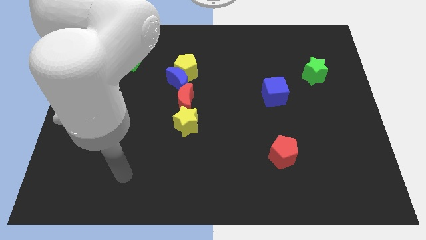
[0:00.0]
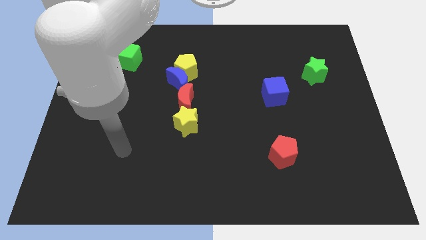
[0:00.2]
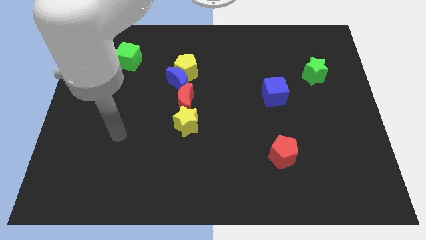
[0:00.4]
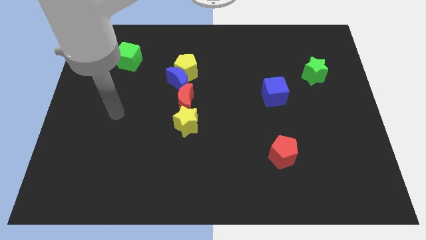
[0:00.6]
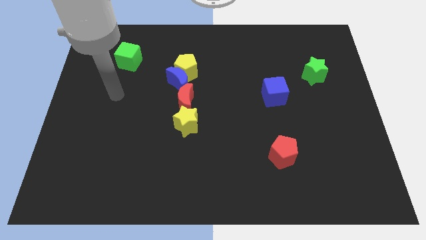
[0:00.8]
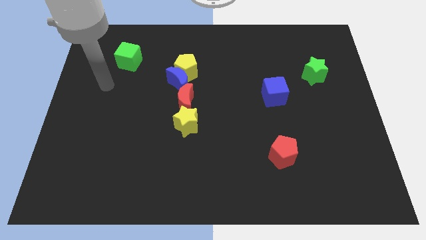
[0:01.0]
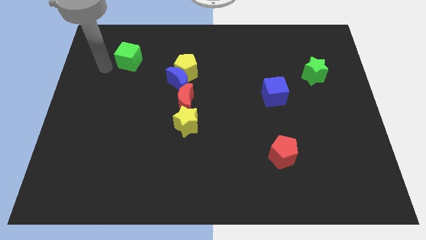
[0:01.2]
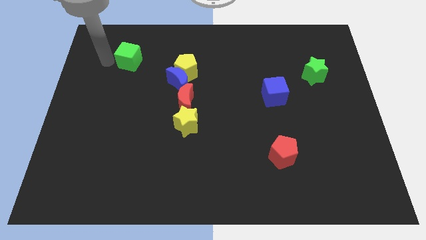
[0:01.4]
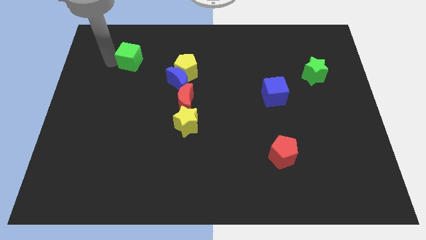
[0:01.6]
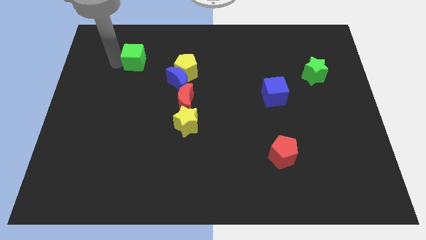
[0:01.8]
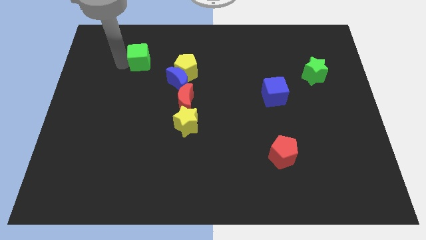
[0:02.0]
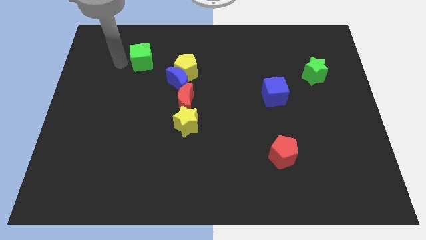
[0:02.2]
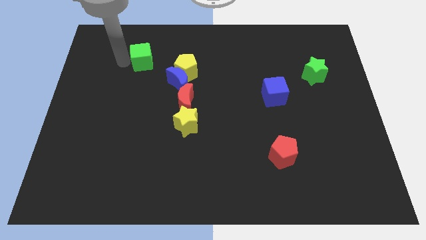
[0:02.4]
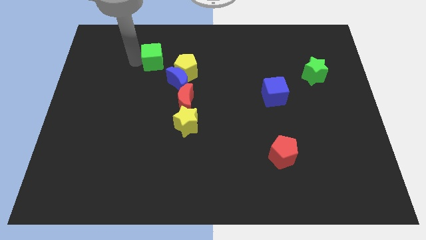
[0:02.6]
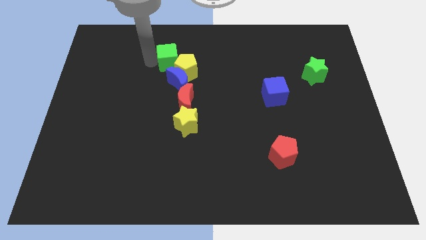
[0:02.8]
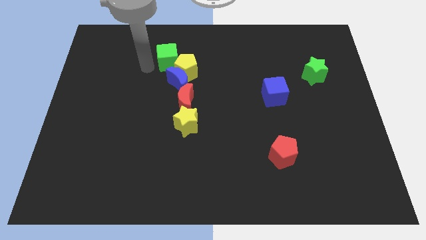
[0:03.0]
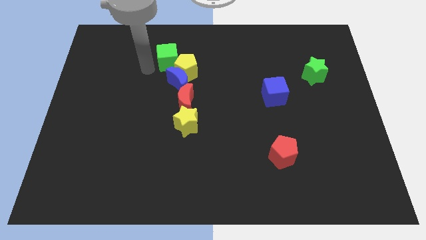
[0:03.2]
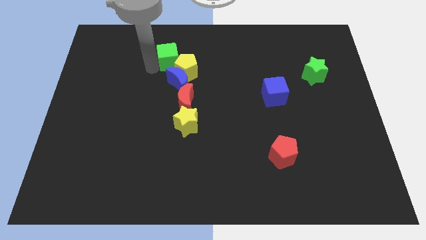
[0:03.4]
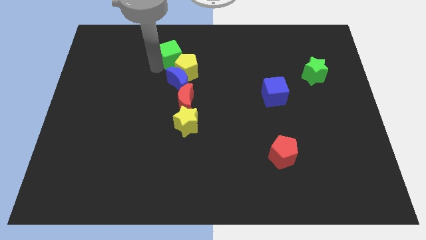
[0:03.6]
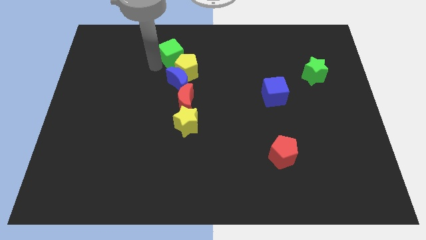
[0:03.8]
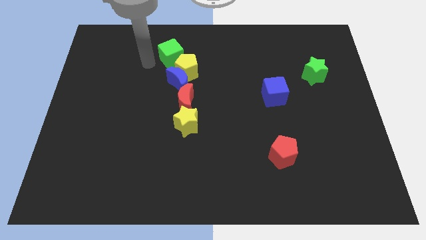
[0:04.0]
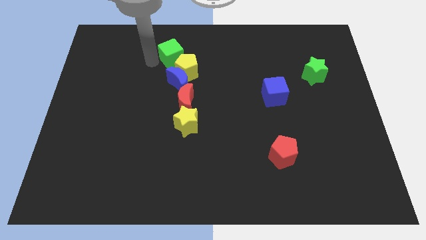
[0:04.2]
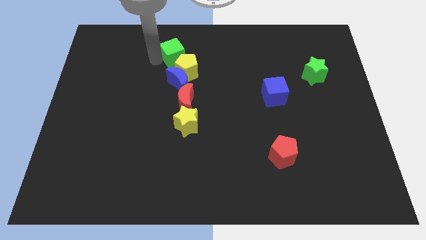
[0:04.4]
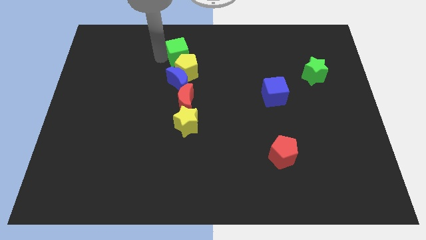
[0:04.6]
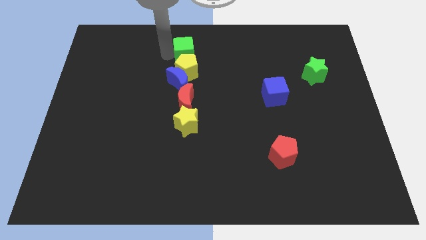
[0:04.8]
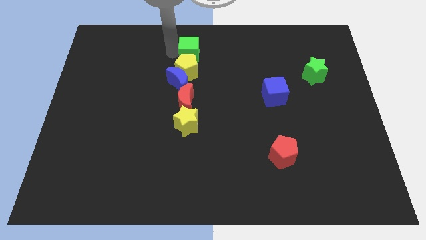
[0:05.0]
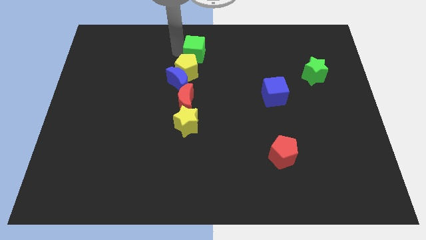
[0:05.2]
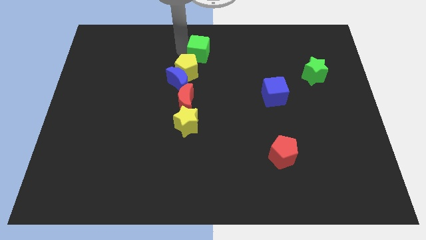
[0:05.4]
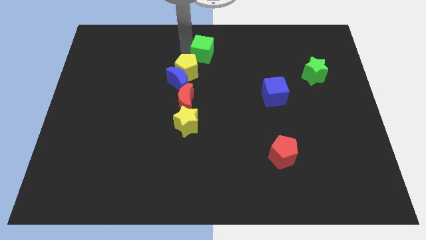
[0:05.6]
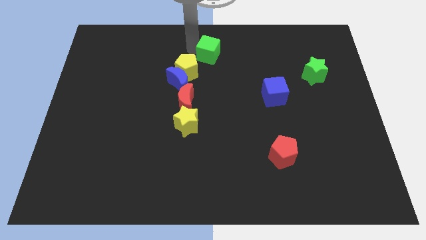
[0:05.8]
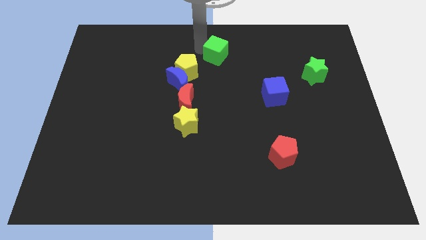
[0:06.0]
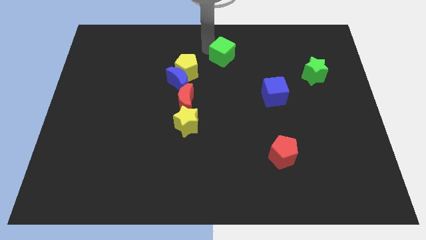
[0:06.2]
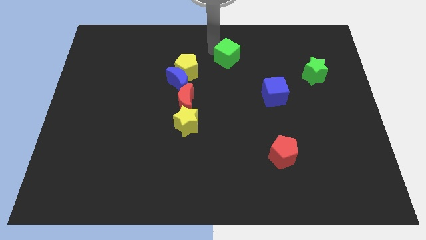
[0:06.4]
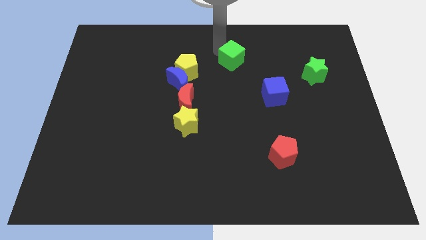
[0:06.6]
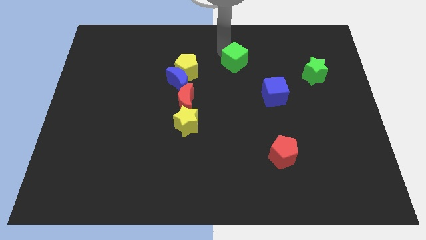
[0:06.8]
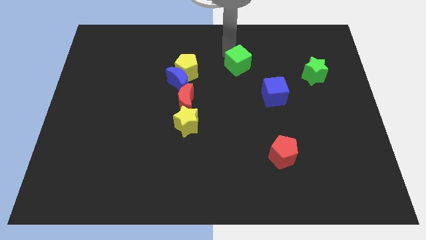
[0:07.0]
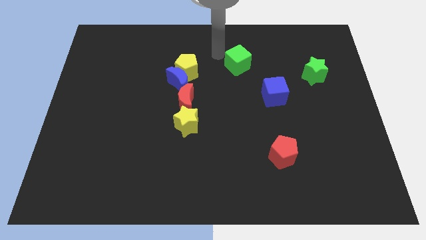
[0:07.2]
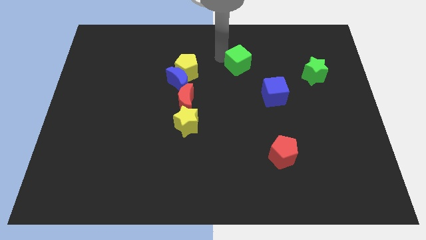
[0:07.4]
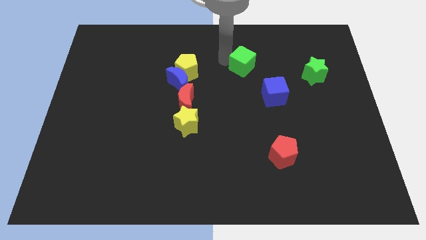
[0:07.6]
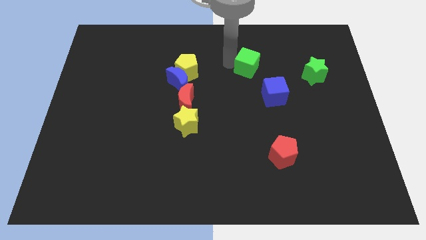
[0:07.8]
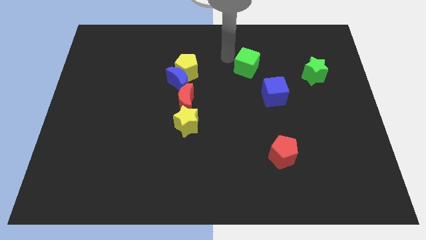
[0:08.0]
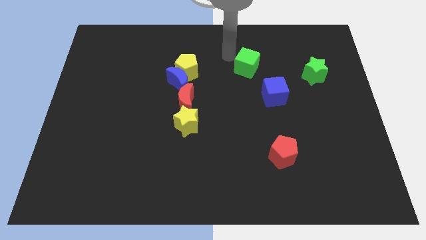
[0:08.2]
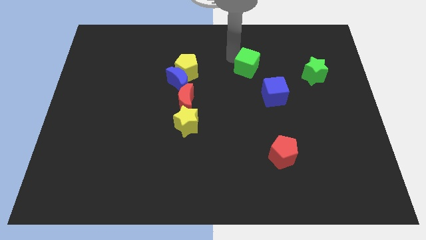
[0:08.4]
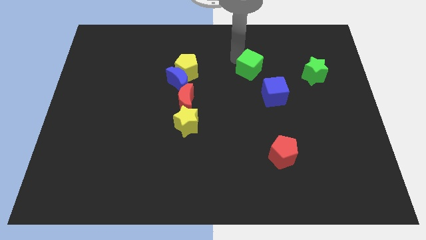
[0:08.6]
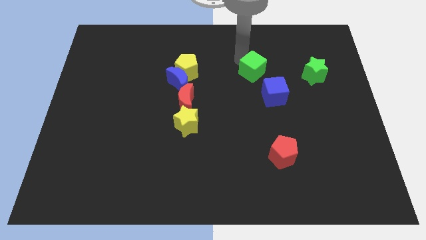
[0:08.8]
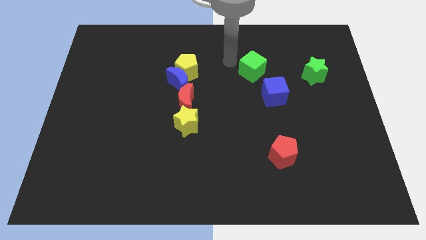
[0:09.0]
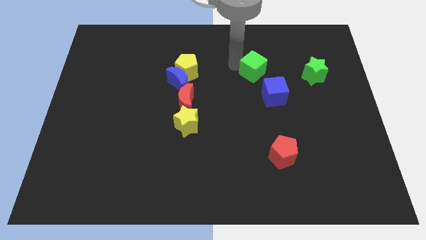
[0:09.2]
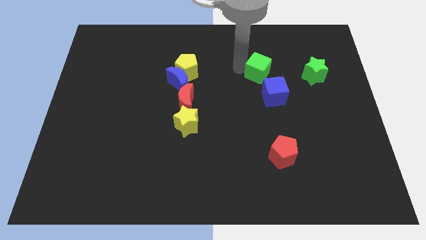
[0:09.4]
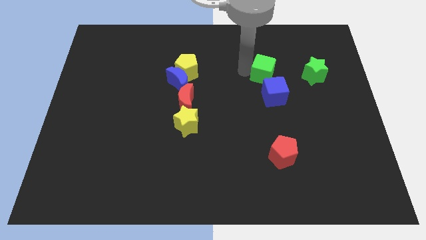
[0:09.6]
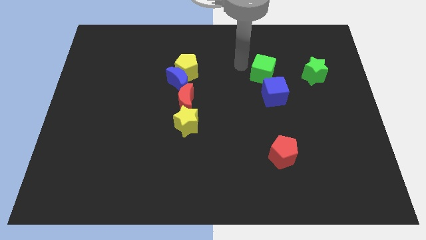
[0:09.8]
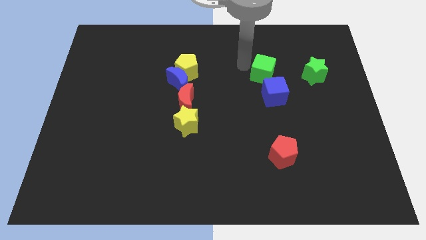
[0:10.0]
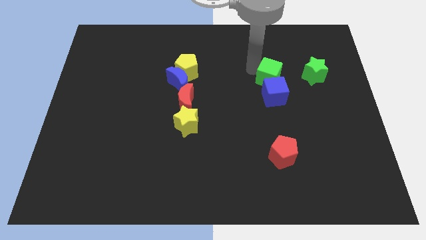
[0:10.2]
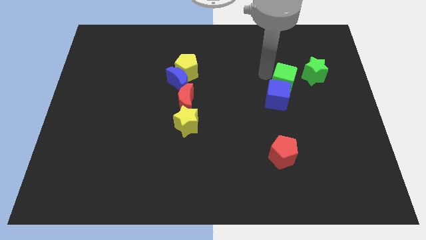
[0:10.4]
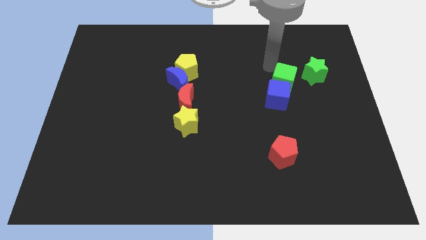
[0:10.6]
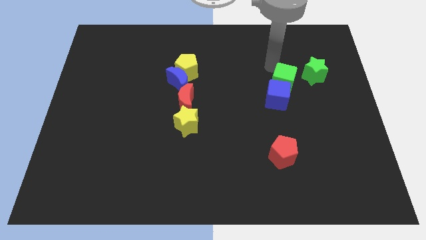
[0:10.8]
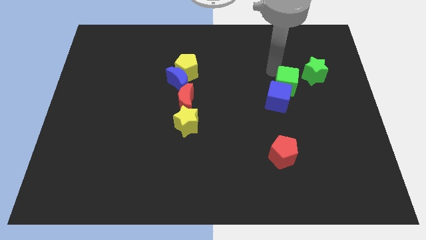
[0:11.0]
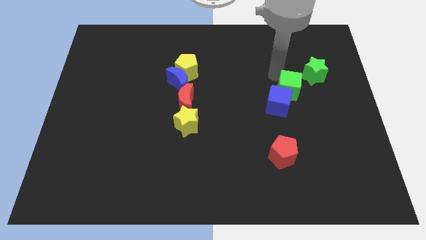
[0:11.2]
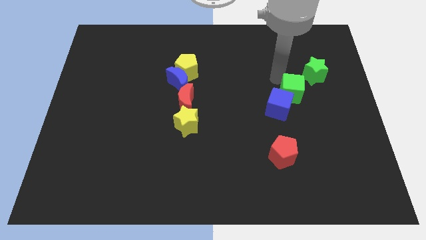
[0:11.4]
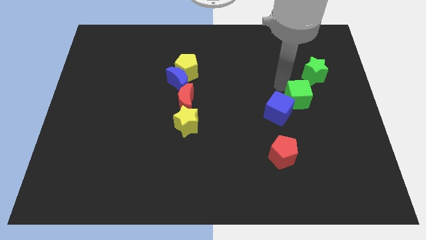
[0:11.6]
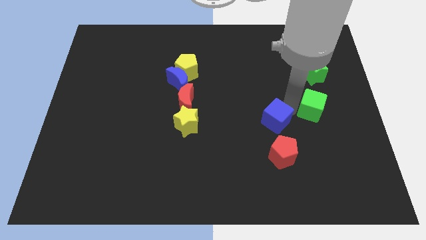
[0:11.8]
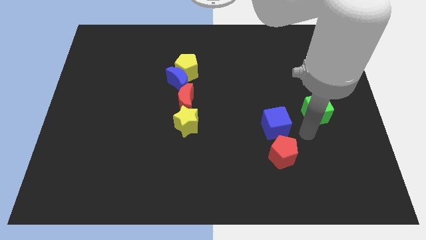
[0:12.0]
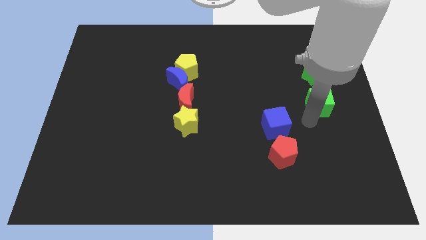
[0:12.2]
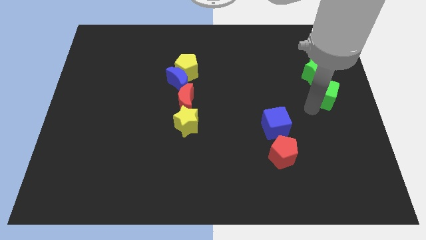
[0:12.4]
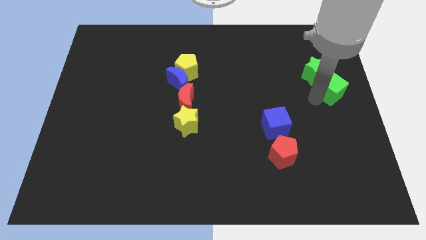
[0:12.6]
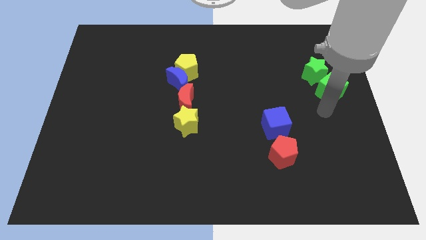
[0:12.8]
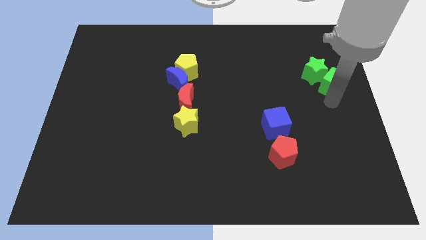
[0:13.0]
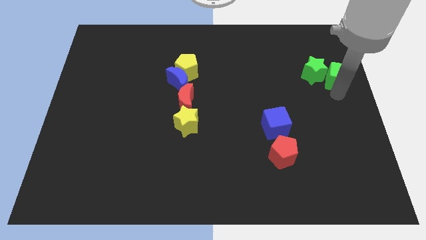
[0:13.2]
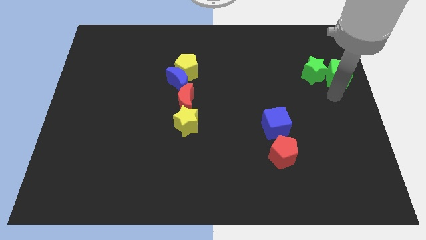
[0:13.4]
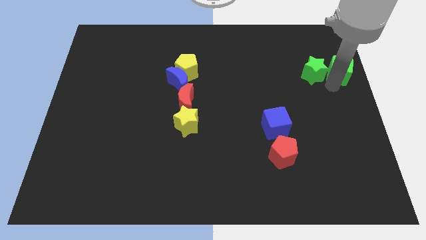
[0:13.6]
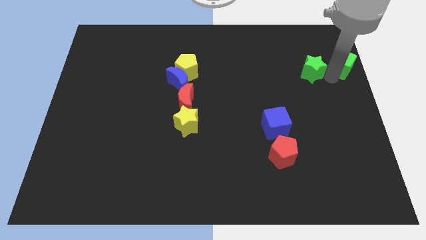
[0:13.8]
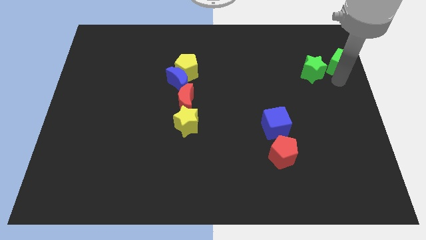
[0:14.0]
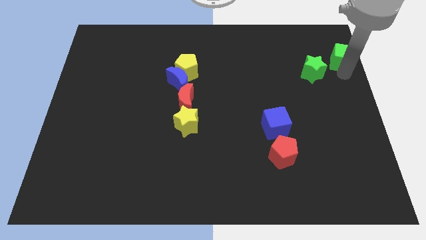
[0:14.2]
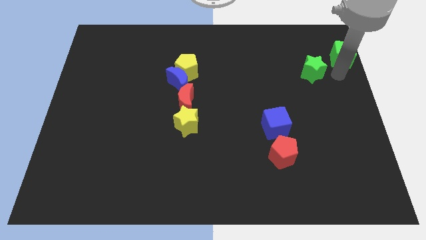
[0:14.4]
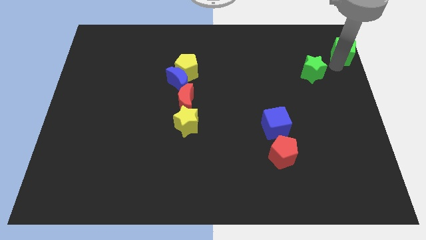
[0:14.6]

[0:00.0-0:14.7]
slide the green cube to the top right corner
